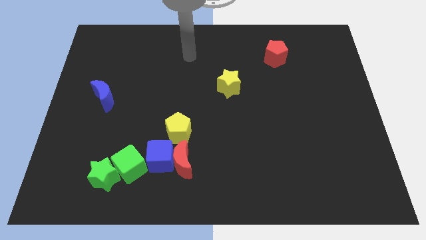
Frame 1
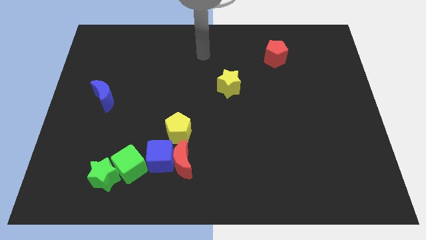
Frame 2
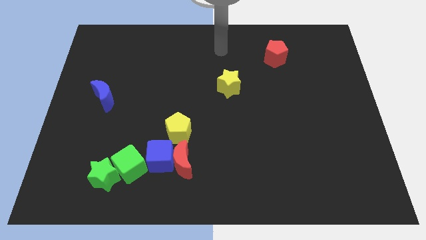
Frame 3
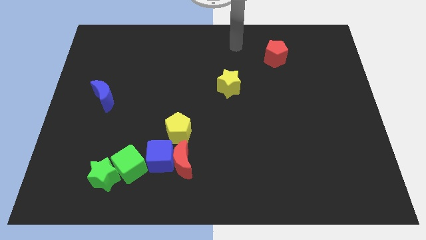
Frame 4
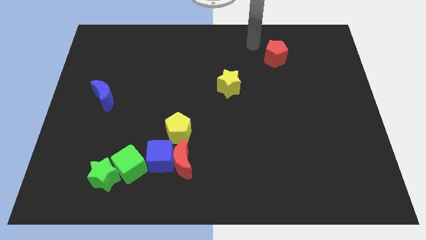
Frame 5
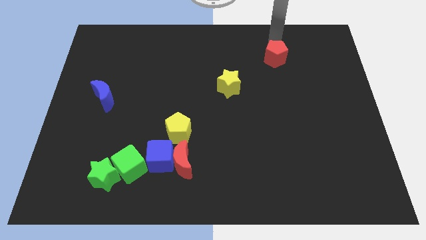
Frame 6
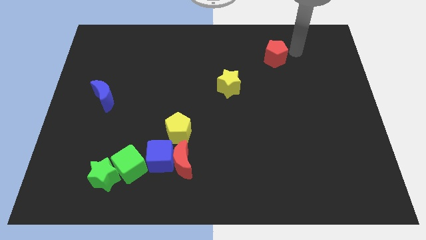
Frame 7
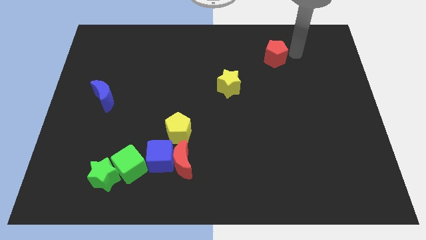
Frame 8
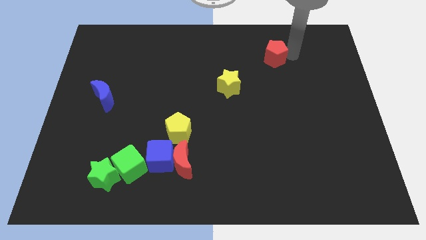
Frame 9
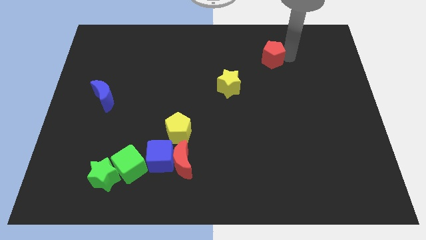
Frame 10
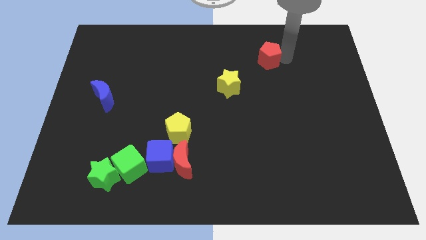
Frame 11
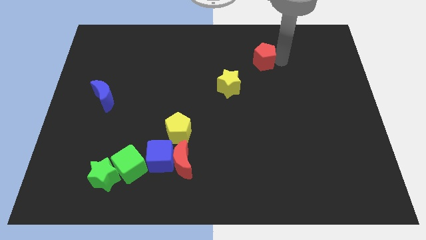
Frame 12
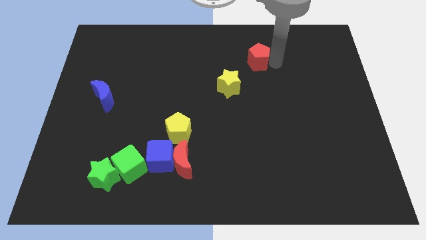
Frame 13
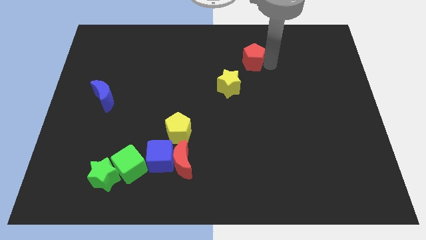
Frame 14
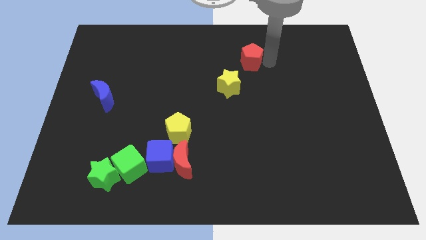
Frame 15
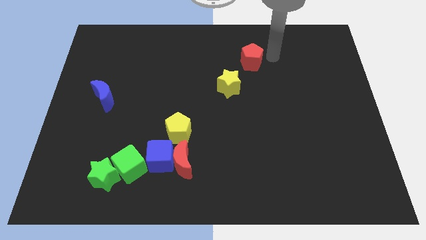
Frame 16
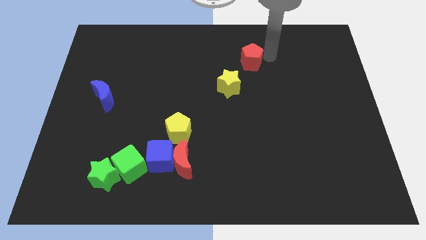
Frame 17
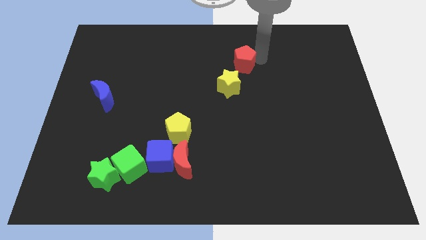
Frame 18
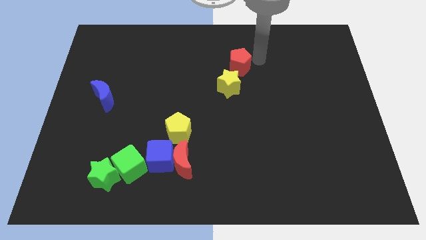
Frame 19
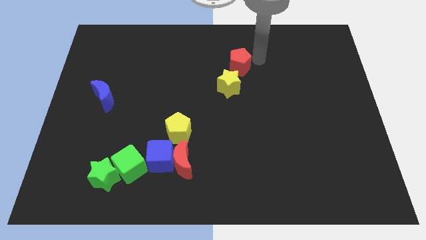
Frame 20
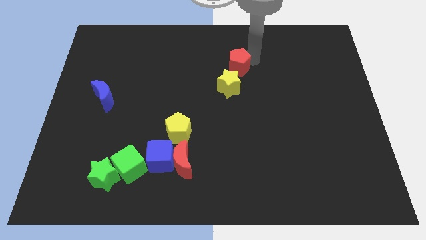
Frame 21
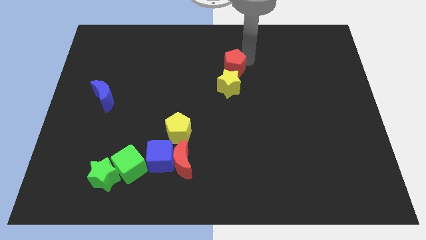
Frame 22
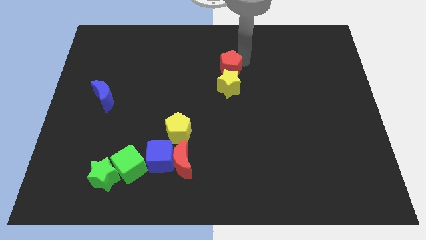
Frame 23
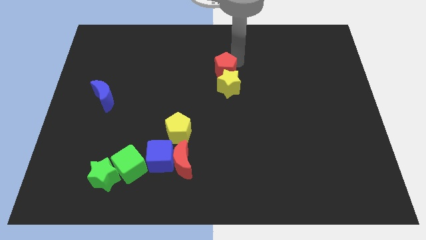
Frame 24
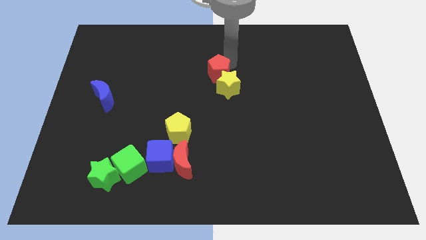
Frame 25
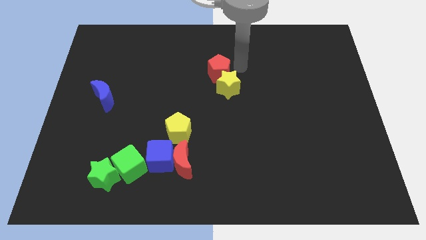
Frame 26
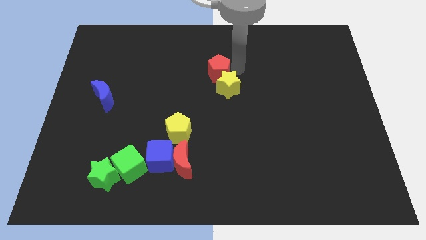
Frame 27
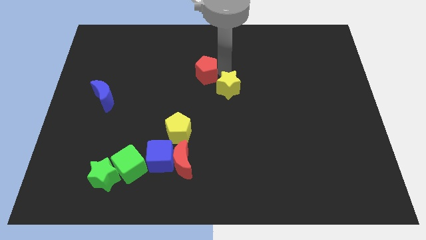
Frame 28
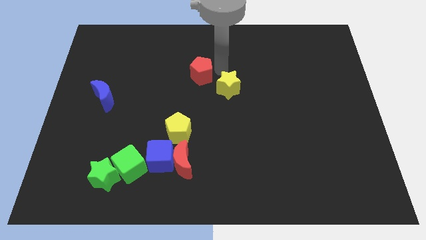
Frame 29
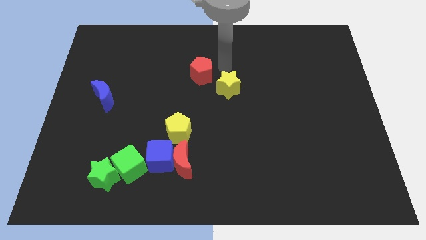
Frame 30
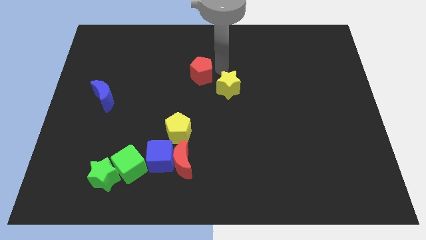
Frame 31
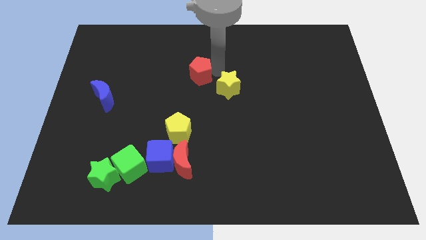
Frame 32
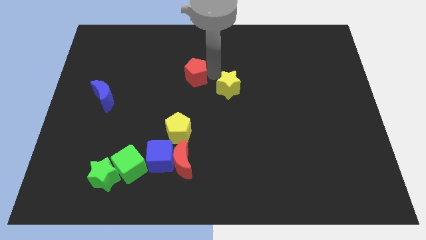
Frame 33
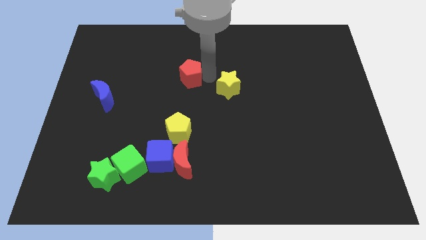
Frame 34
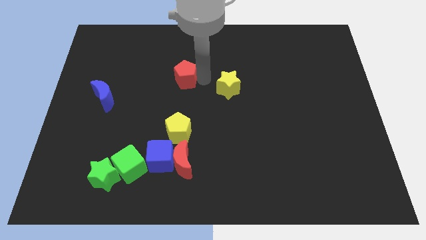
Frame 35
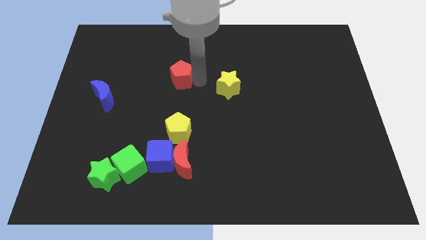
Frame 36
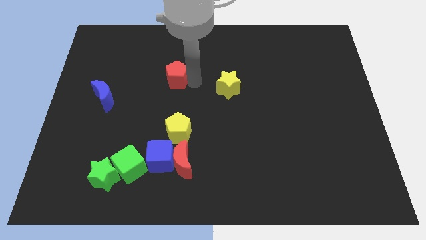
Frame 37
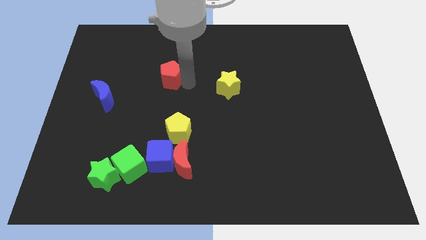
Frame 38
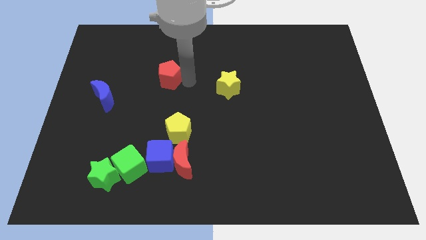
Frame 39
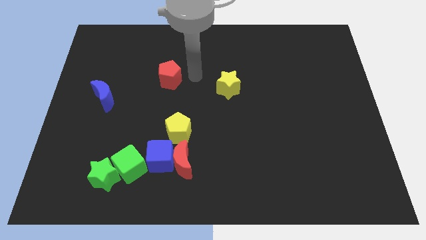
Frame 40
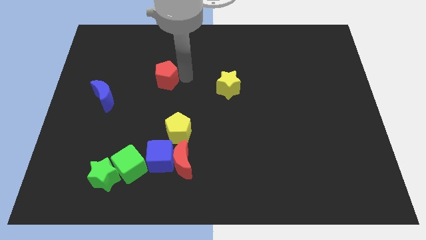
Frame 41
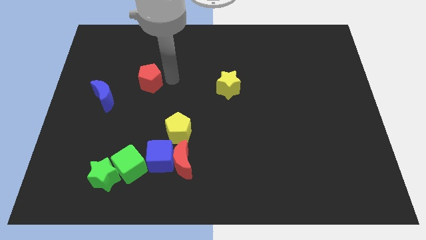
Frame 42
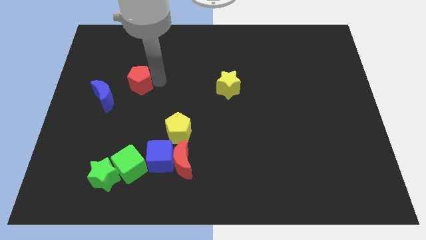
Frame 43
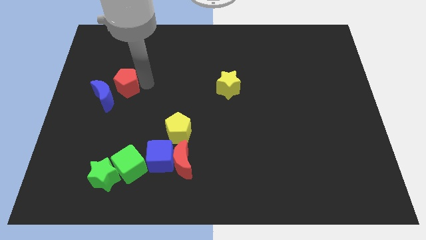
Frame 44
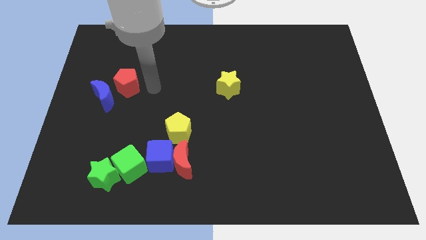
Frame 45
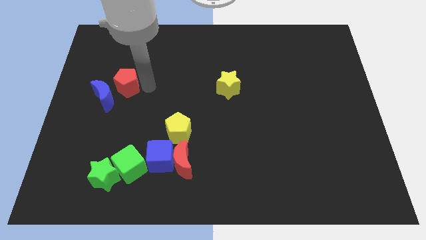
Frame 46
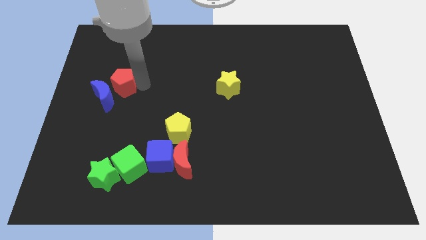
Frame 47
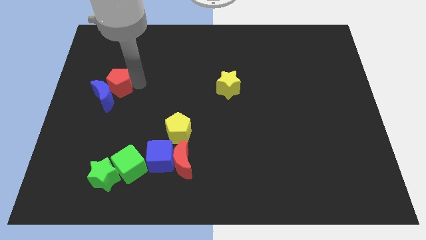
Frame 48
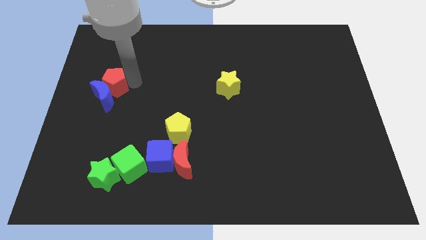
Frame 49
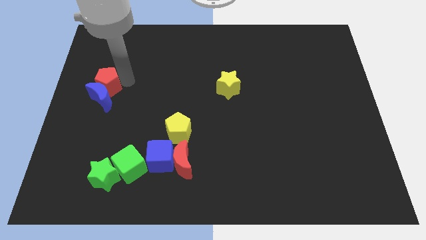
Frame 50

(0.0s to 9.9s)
push the red pentagon to the left side of the board
